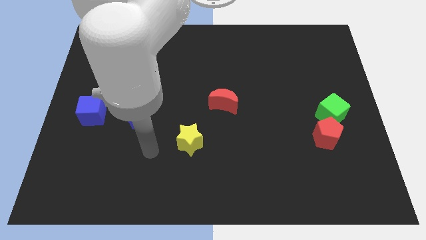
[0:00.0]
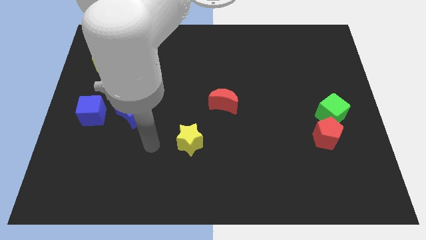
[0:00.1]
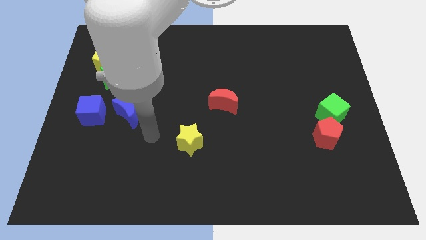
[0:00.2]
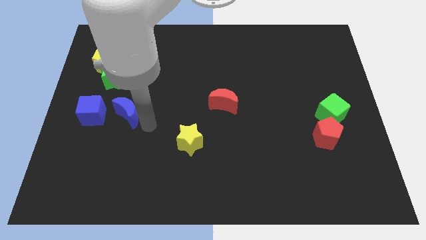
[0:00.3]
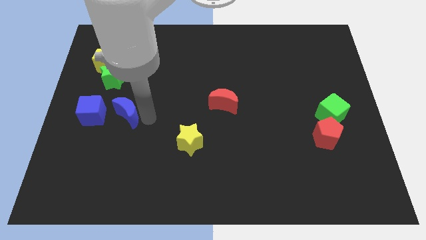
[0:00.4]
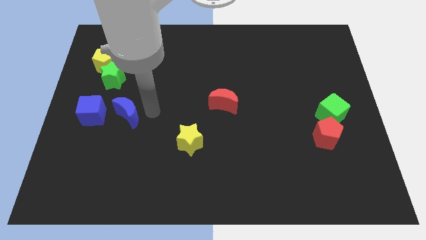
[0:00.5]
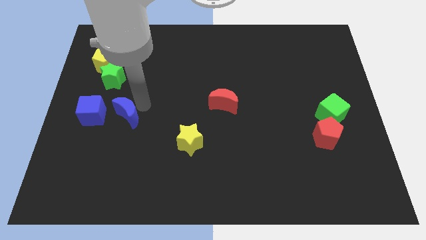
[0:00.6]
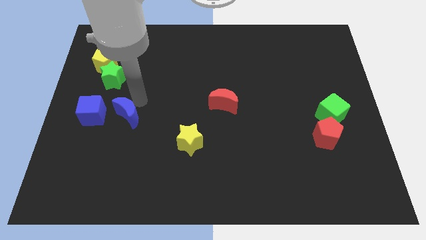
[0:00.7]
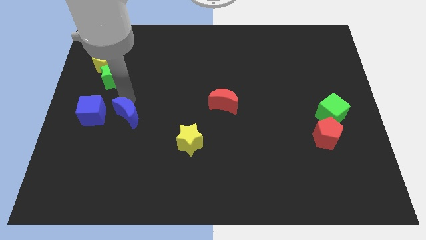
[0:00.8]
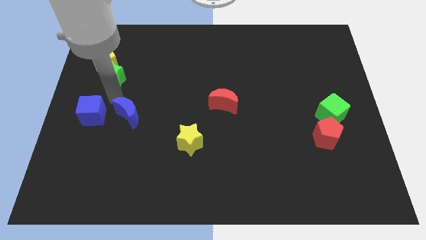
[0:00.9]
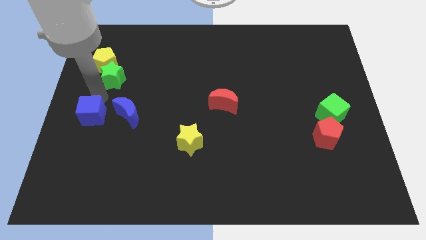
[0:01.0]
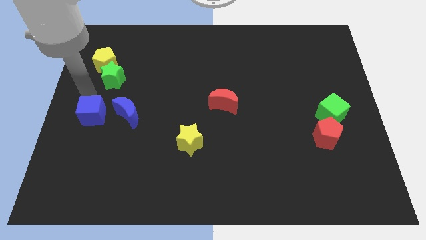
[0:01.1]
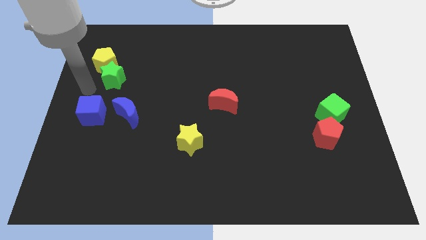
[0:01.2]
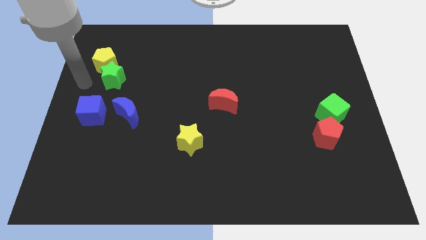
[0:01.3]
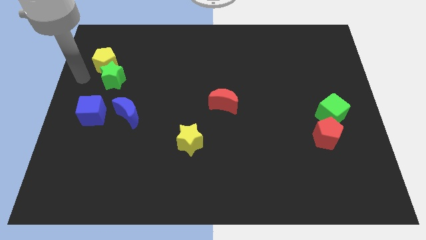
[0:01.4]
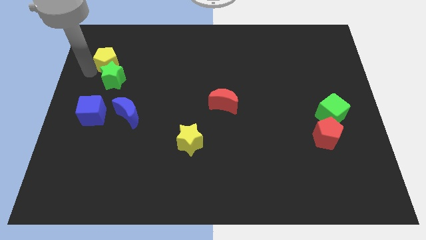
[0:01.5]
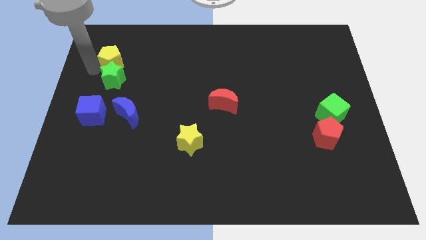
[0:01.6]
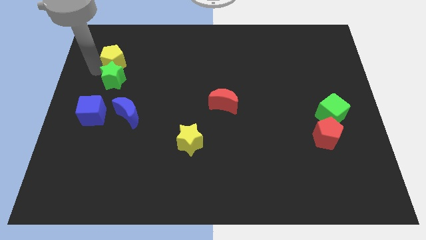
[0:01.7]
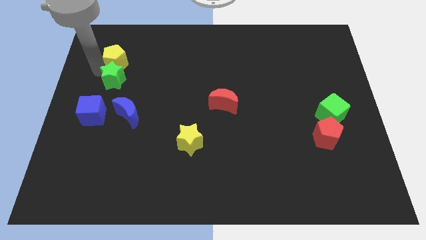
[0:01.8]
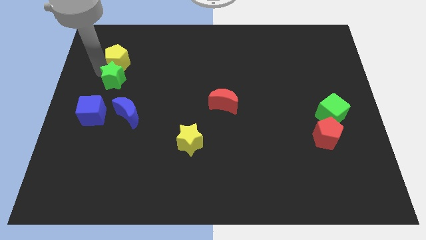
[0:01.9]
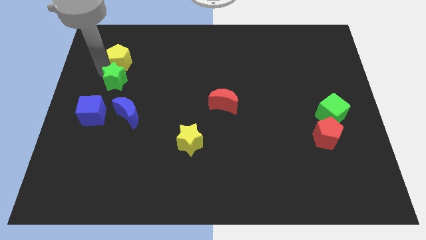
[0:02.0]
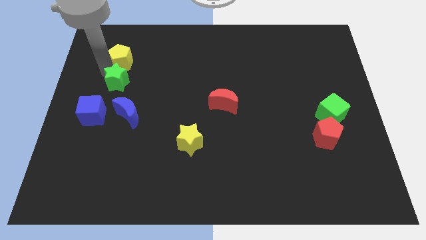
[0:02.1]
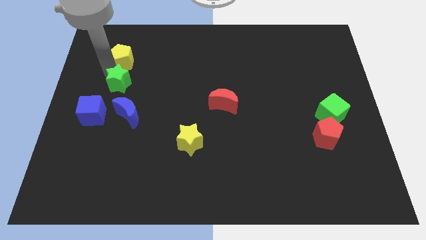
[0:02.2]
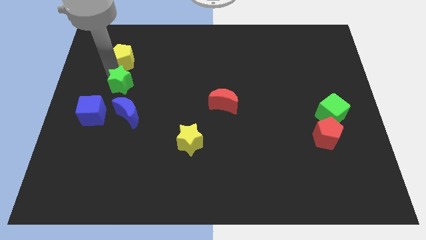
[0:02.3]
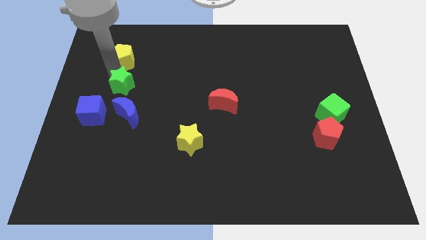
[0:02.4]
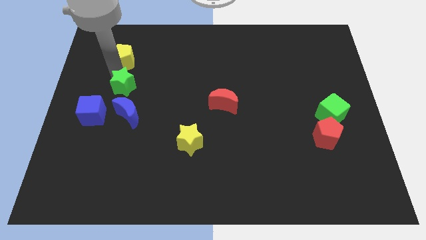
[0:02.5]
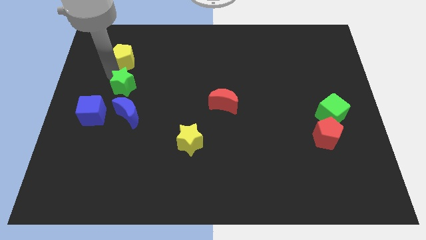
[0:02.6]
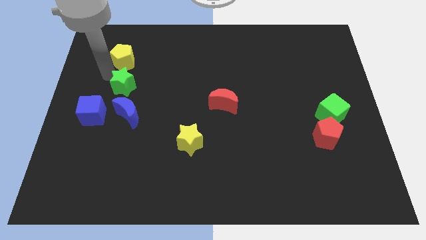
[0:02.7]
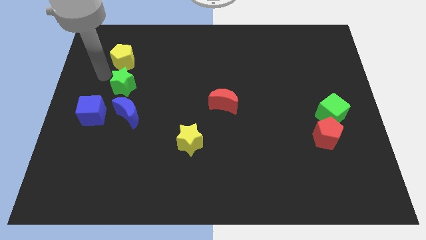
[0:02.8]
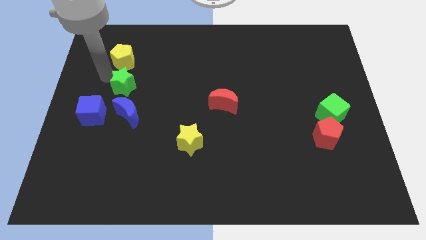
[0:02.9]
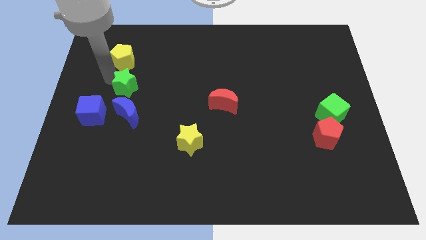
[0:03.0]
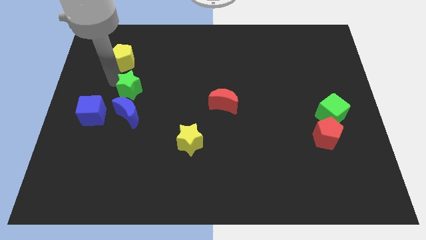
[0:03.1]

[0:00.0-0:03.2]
move the green star away from the yellow pentagon

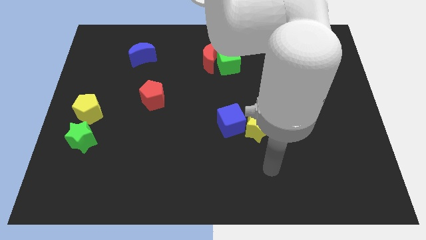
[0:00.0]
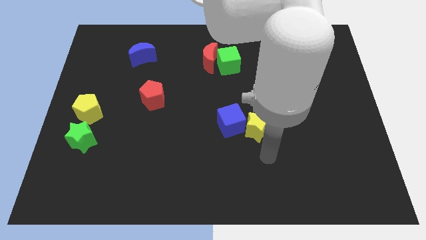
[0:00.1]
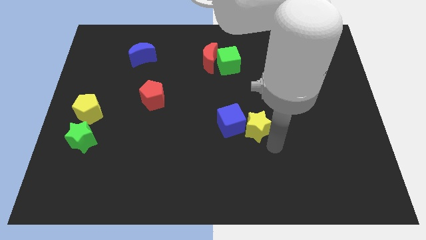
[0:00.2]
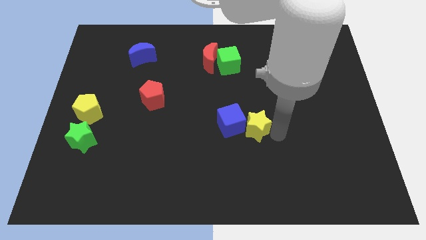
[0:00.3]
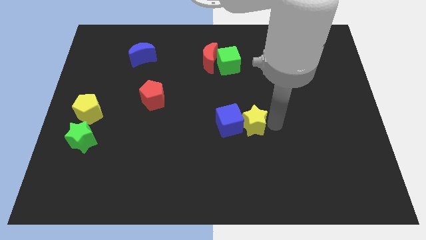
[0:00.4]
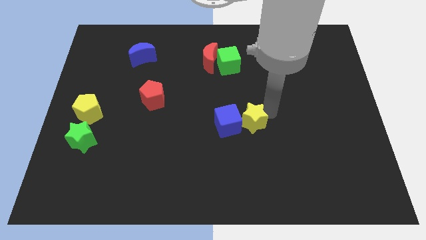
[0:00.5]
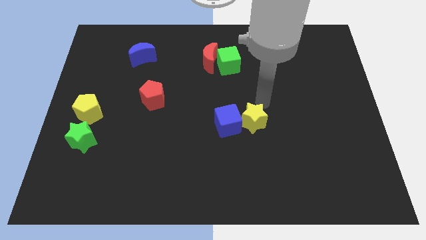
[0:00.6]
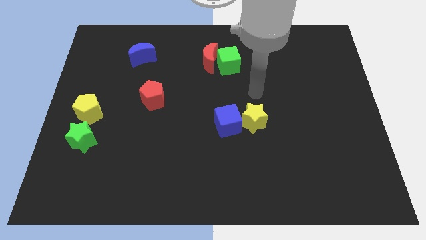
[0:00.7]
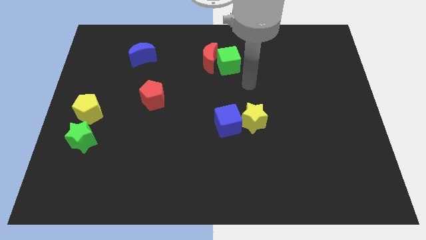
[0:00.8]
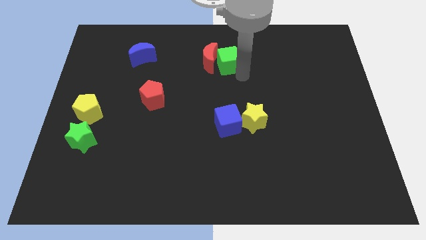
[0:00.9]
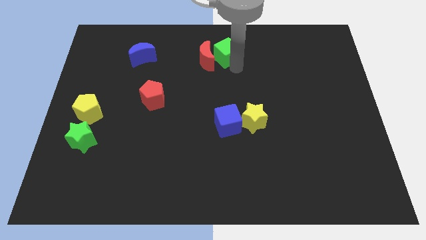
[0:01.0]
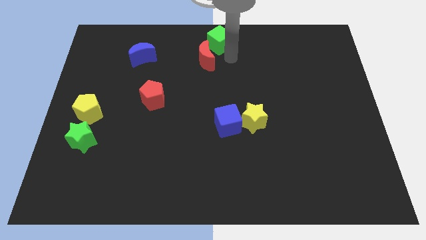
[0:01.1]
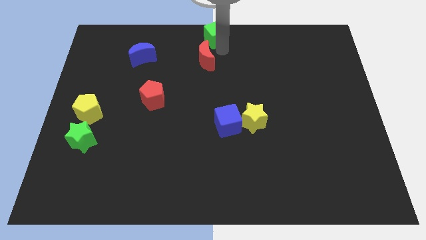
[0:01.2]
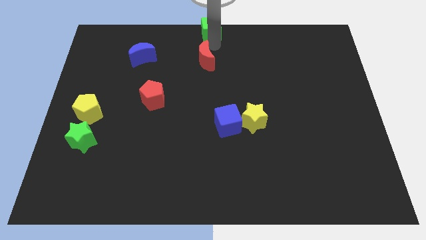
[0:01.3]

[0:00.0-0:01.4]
separate the red moon from the green cube

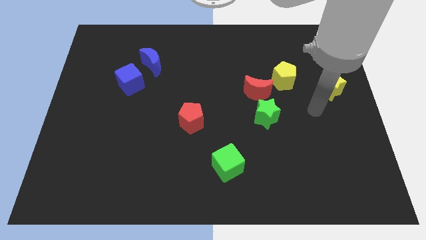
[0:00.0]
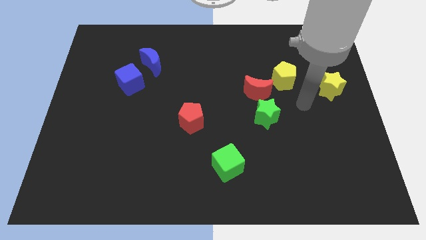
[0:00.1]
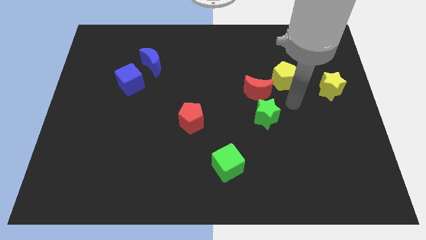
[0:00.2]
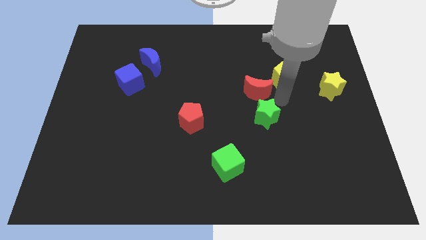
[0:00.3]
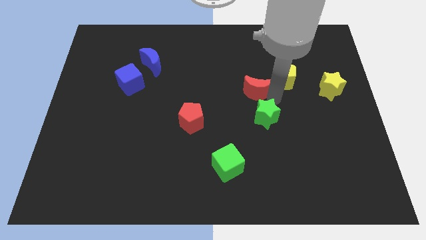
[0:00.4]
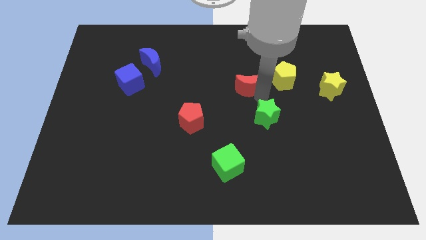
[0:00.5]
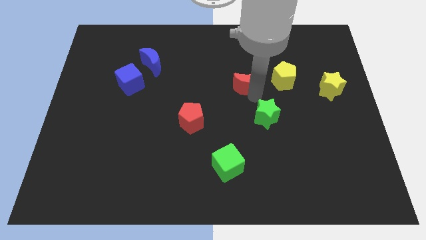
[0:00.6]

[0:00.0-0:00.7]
separate the green star from the red moon

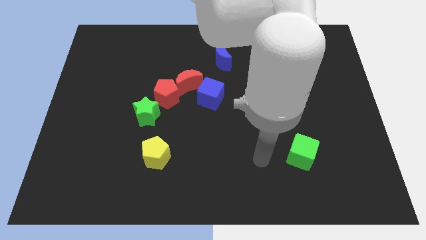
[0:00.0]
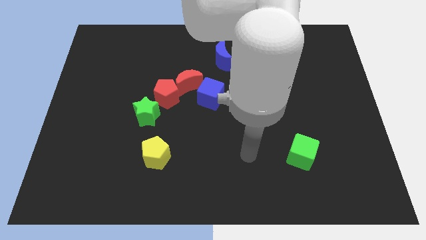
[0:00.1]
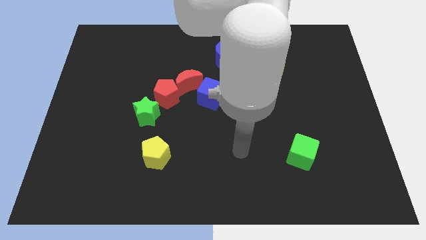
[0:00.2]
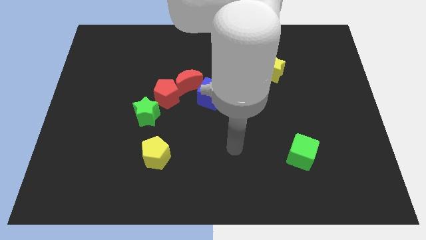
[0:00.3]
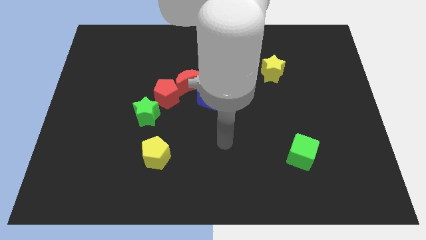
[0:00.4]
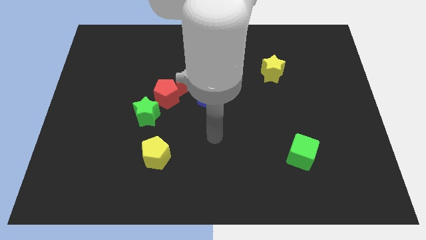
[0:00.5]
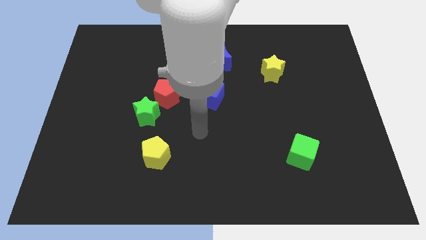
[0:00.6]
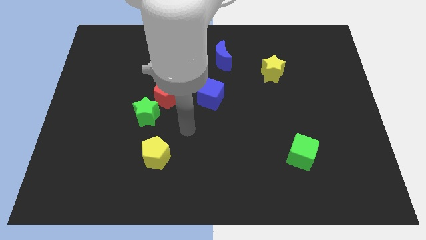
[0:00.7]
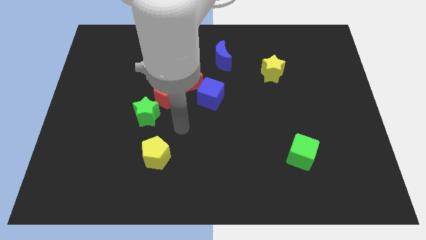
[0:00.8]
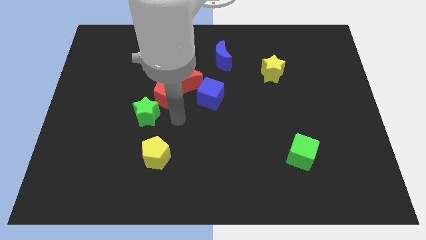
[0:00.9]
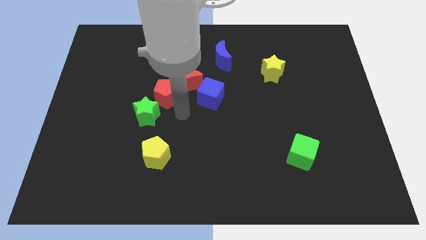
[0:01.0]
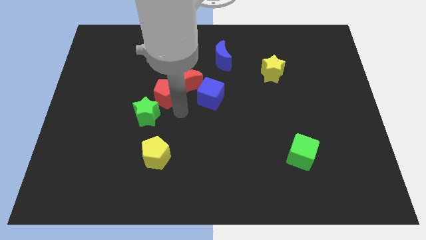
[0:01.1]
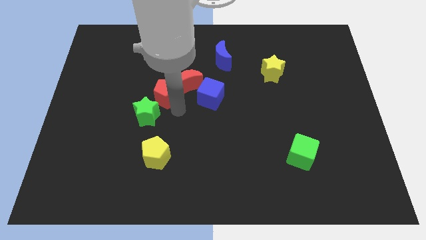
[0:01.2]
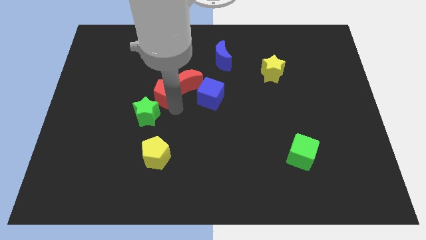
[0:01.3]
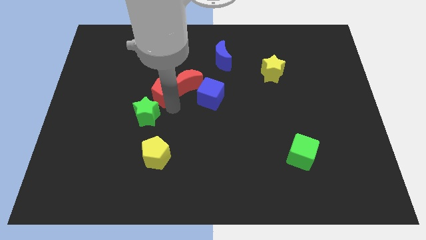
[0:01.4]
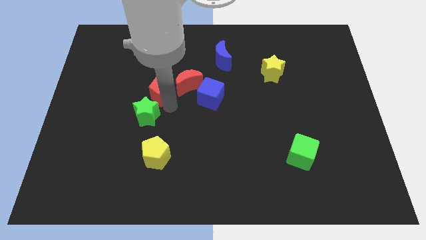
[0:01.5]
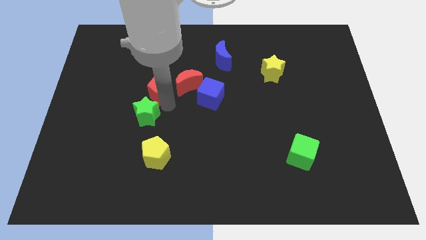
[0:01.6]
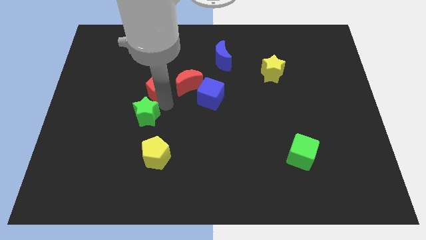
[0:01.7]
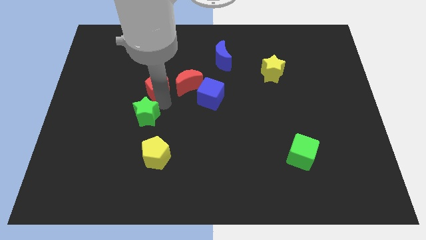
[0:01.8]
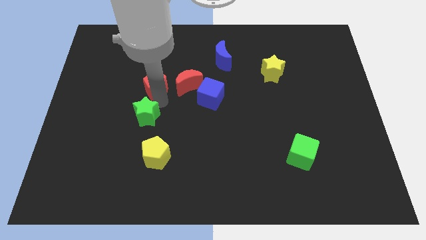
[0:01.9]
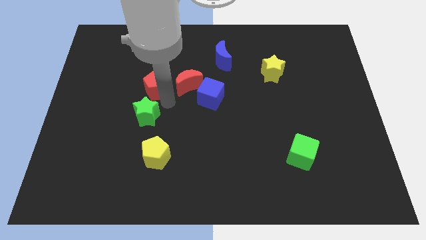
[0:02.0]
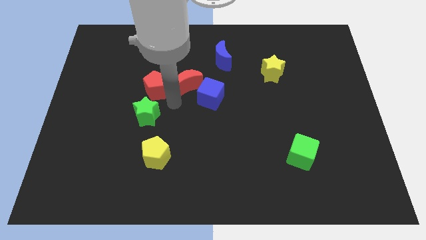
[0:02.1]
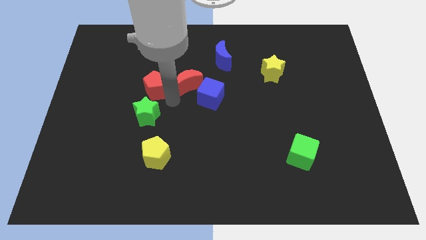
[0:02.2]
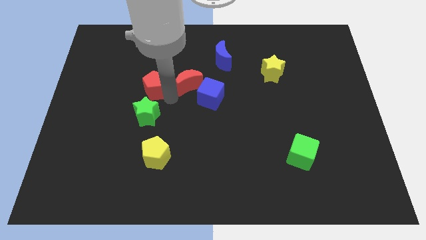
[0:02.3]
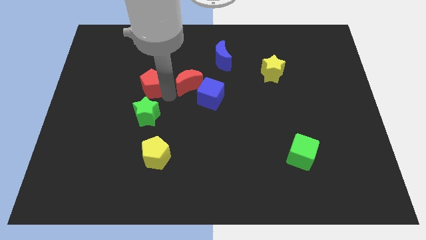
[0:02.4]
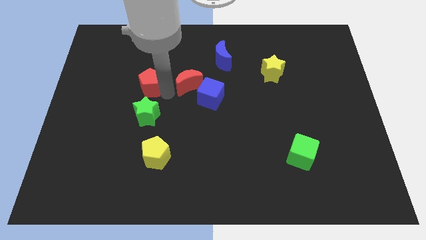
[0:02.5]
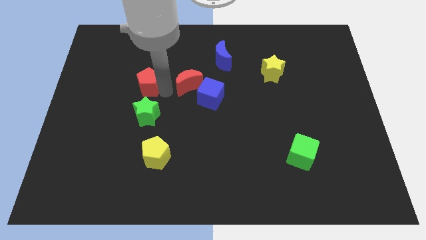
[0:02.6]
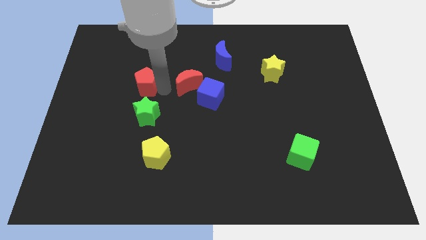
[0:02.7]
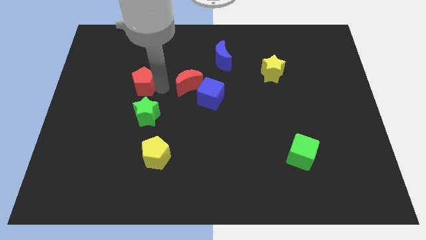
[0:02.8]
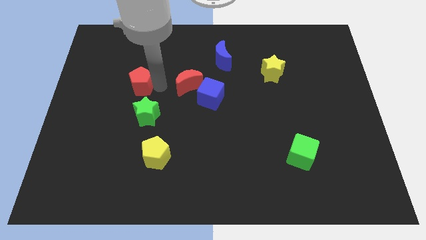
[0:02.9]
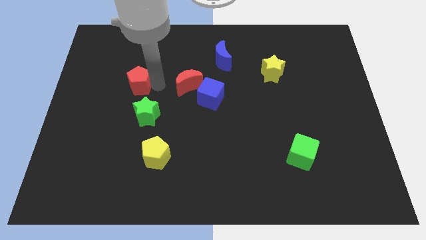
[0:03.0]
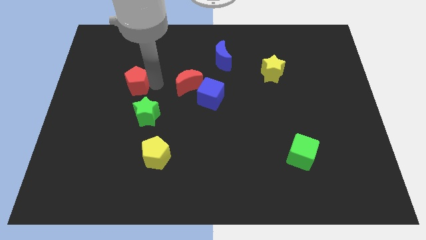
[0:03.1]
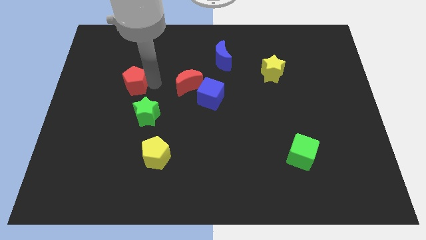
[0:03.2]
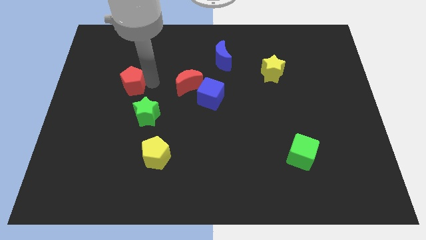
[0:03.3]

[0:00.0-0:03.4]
separate the red pentagon from the red moon and green star

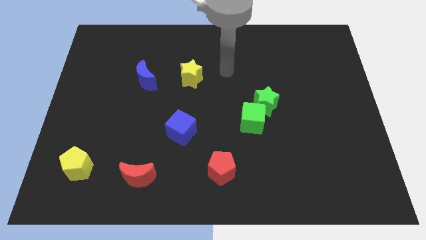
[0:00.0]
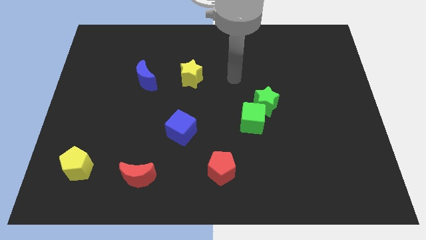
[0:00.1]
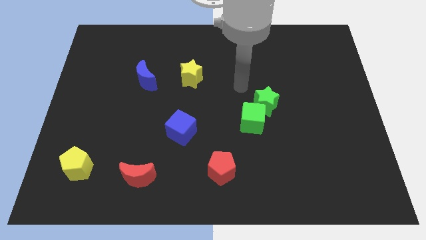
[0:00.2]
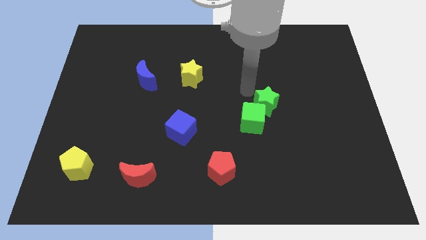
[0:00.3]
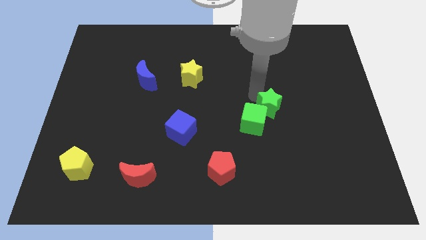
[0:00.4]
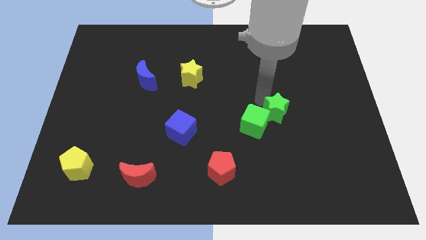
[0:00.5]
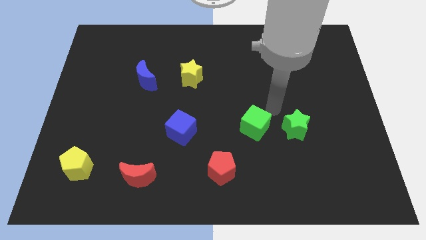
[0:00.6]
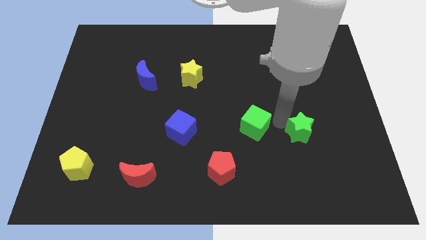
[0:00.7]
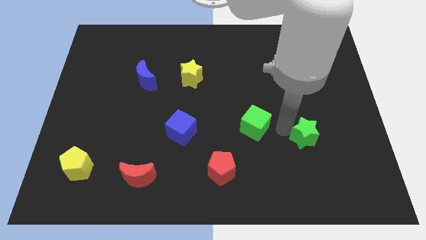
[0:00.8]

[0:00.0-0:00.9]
pull the green cube apart from the green star
